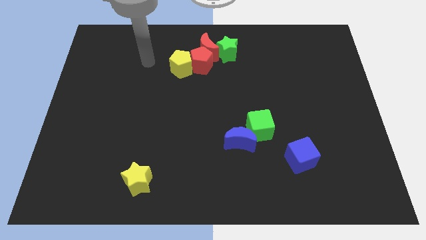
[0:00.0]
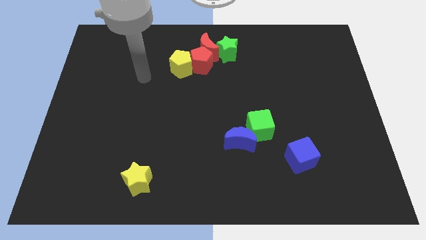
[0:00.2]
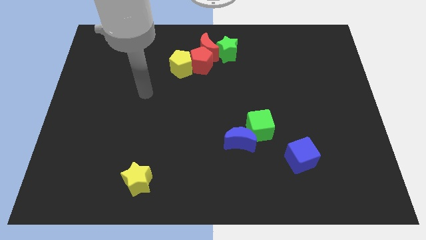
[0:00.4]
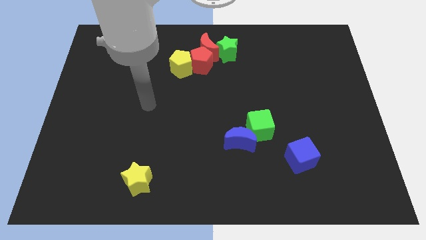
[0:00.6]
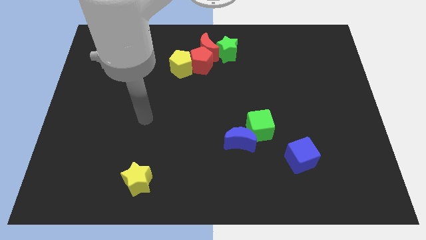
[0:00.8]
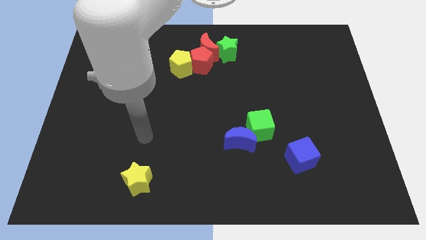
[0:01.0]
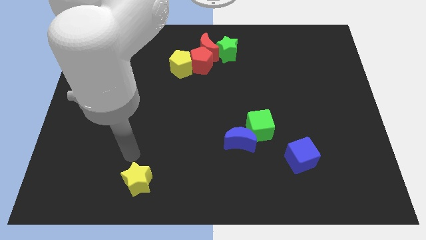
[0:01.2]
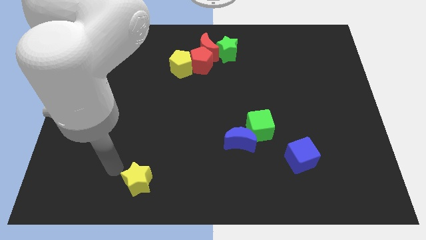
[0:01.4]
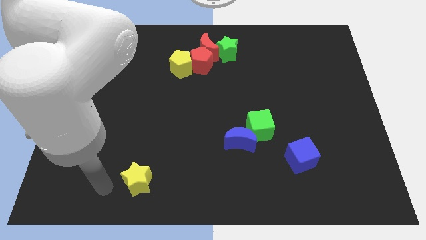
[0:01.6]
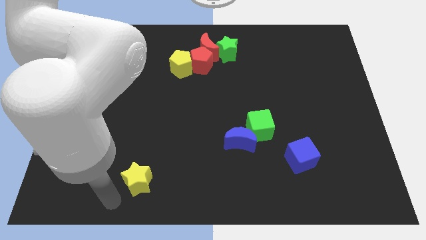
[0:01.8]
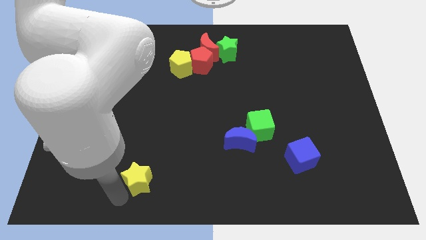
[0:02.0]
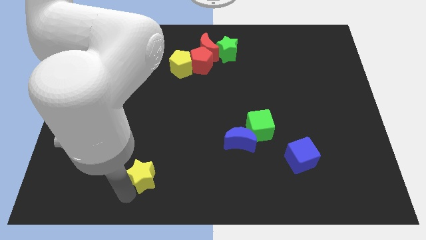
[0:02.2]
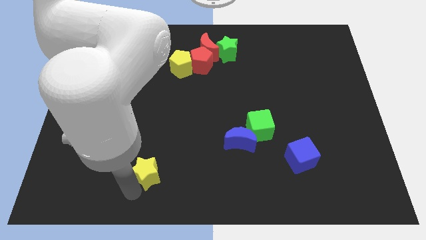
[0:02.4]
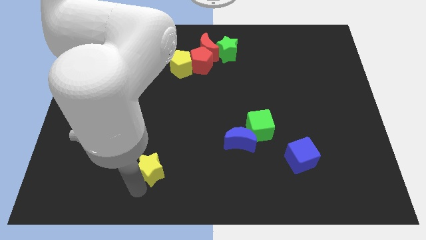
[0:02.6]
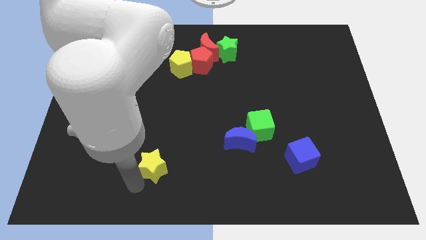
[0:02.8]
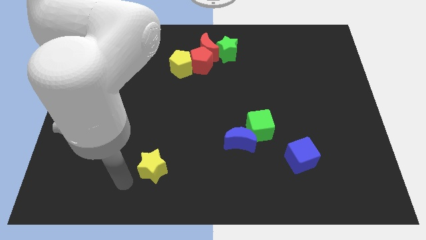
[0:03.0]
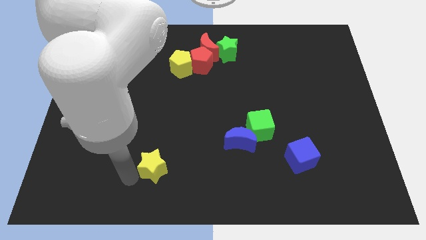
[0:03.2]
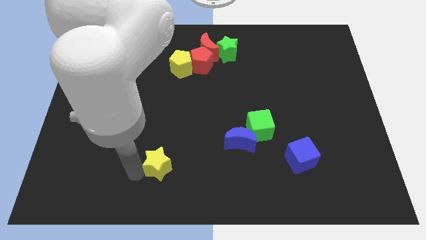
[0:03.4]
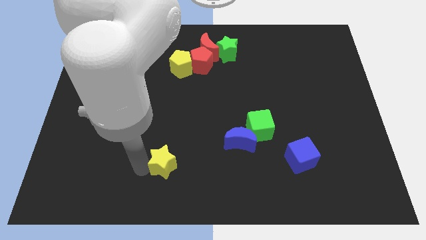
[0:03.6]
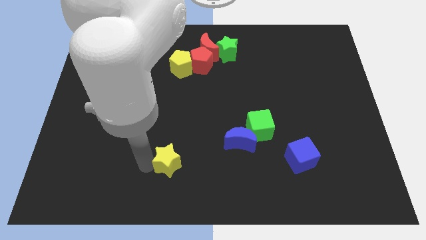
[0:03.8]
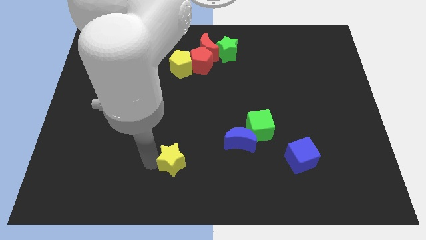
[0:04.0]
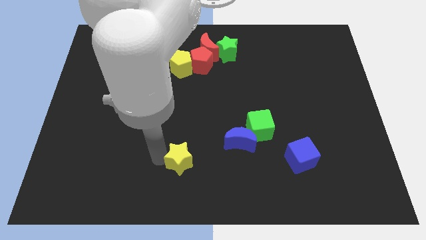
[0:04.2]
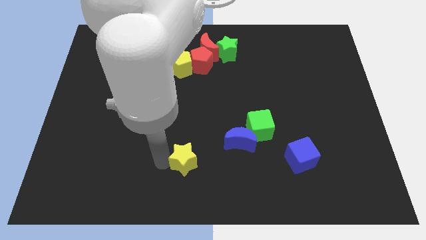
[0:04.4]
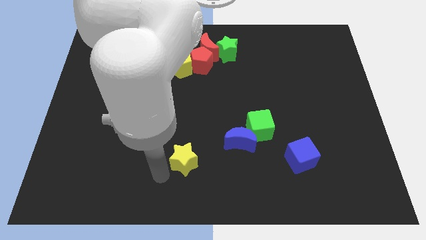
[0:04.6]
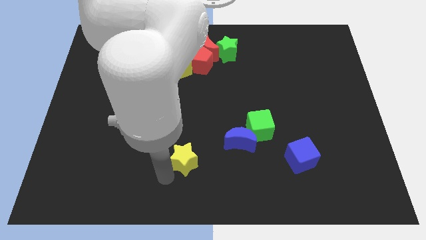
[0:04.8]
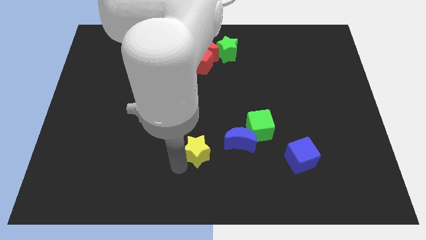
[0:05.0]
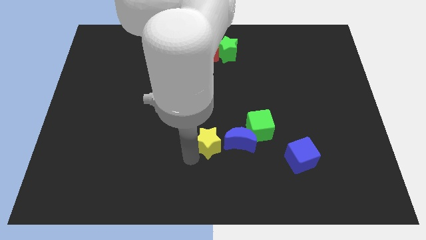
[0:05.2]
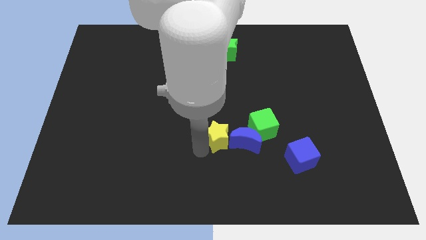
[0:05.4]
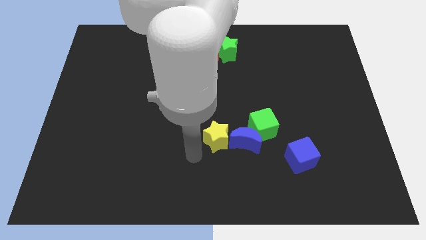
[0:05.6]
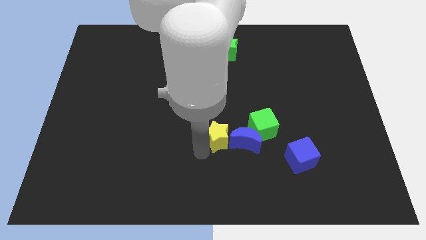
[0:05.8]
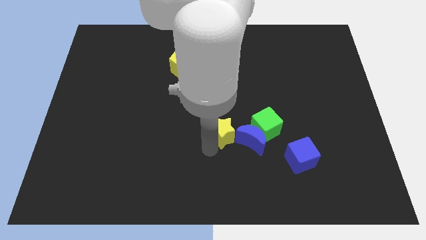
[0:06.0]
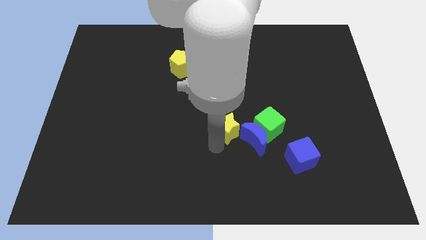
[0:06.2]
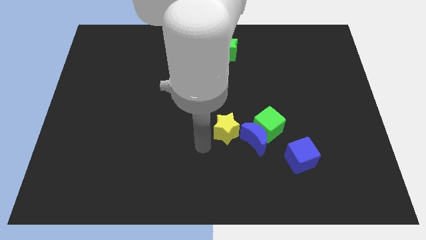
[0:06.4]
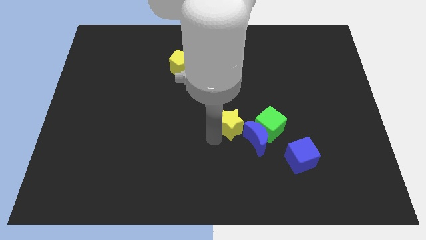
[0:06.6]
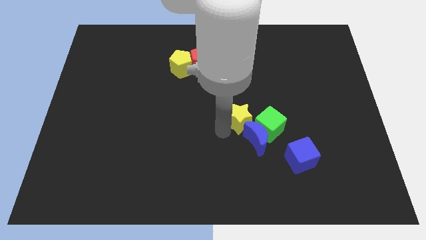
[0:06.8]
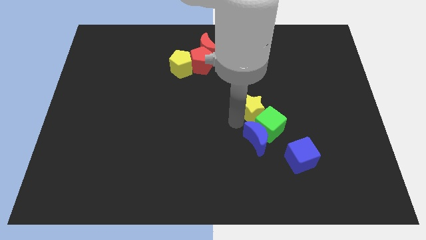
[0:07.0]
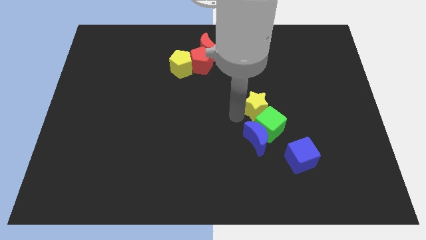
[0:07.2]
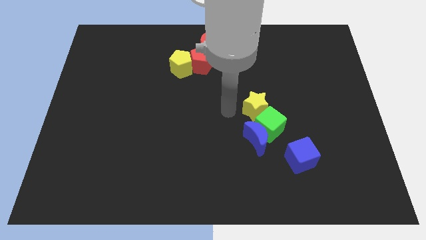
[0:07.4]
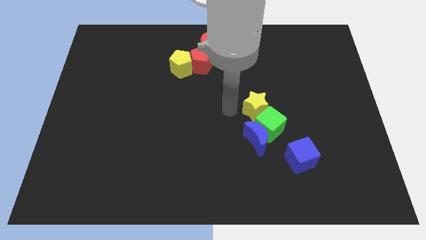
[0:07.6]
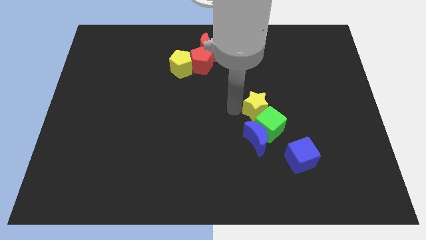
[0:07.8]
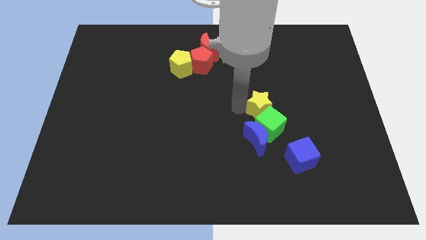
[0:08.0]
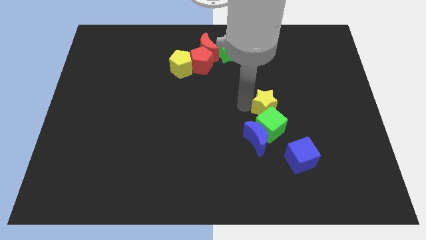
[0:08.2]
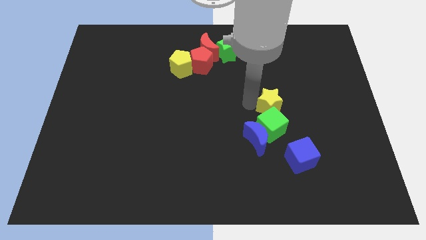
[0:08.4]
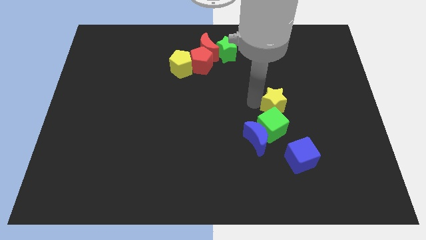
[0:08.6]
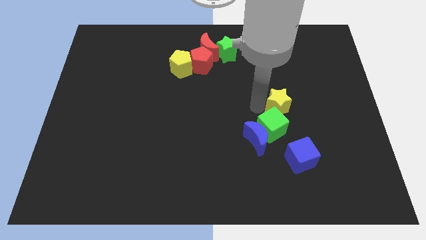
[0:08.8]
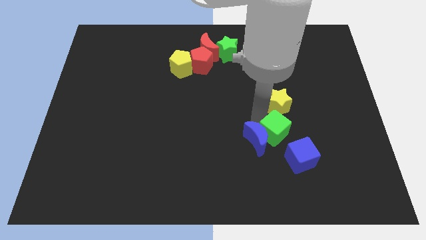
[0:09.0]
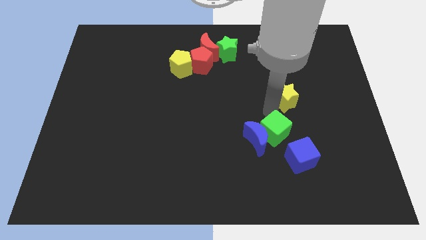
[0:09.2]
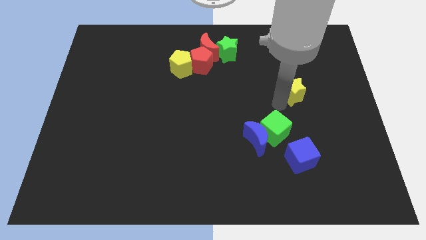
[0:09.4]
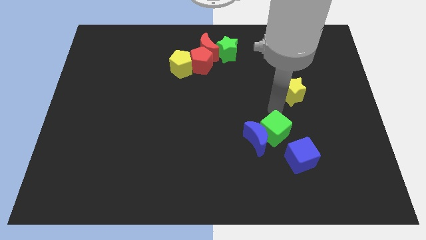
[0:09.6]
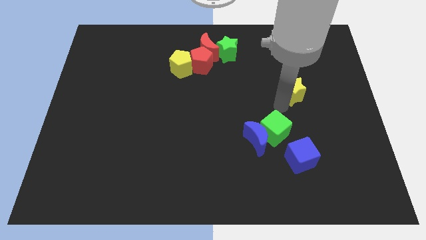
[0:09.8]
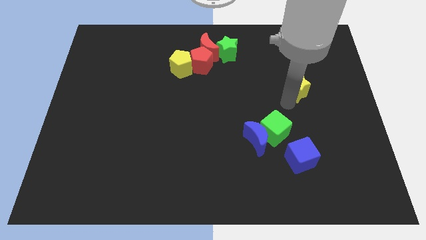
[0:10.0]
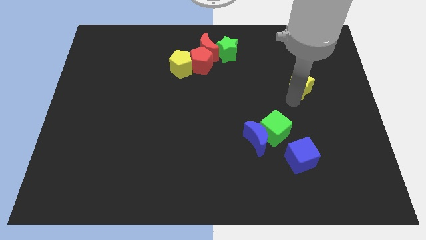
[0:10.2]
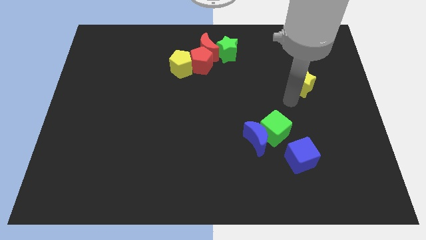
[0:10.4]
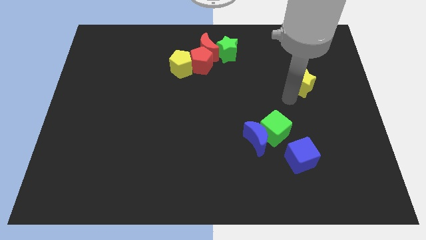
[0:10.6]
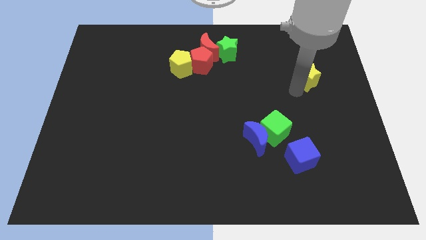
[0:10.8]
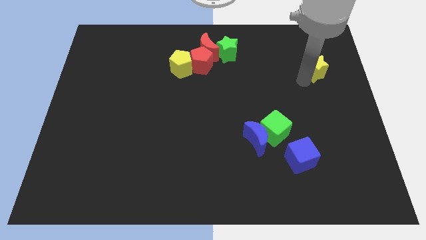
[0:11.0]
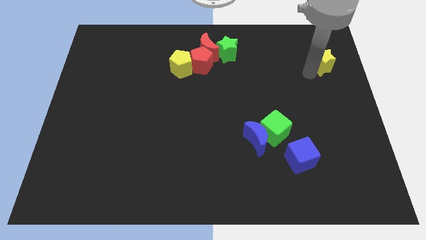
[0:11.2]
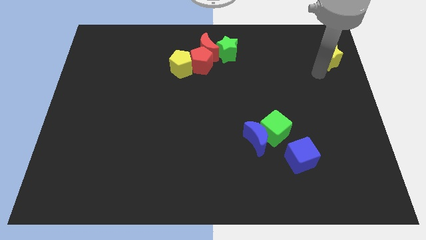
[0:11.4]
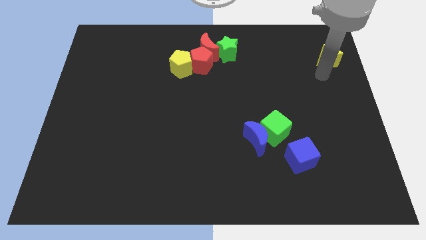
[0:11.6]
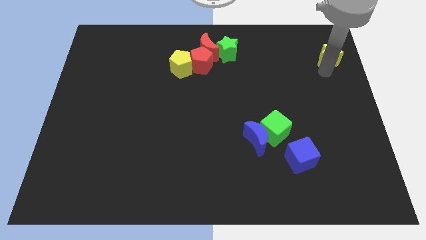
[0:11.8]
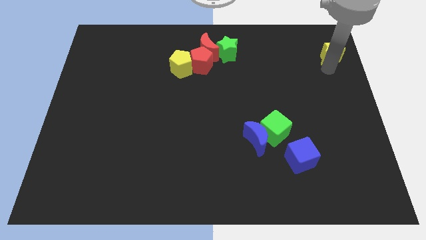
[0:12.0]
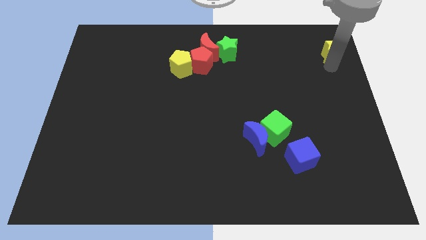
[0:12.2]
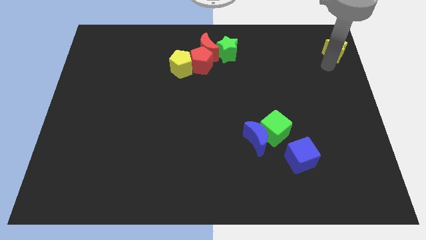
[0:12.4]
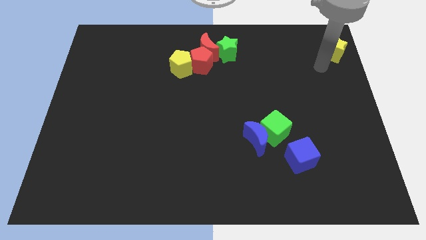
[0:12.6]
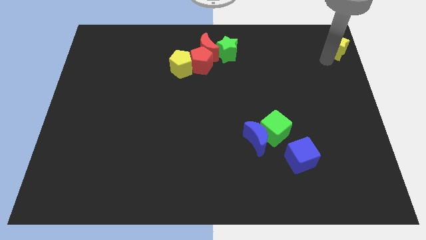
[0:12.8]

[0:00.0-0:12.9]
slide the yellow star to the upper right corner

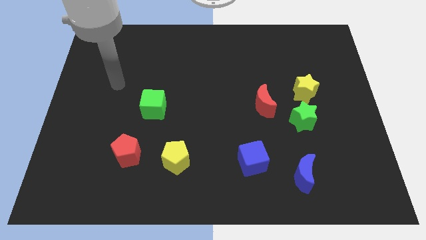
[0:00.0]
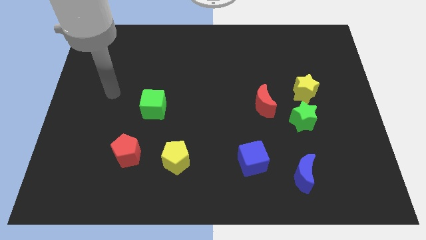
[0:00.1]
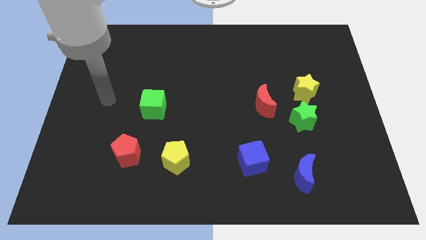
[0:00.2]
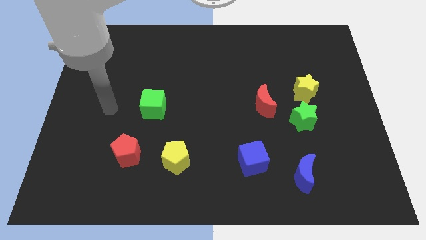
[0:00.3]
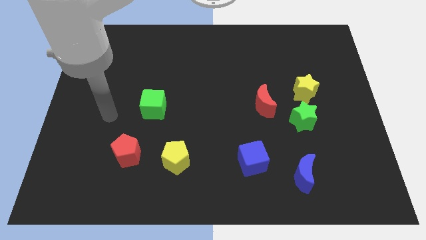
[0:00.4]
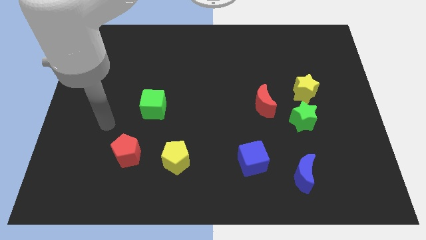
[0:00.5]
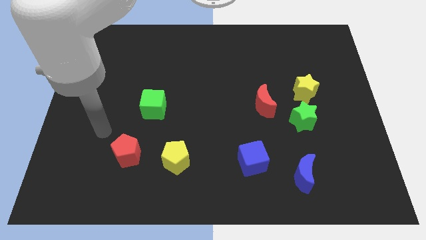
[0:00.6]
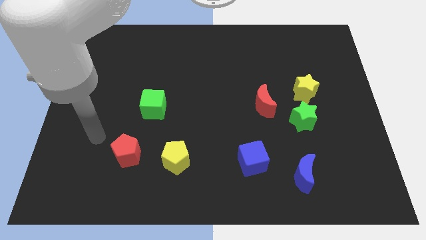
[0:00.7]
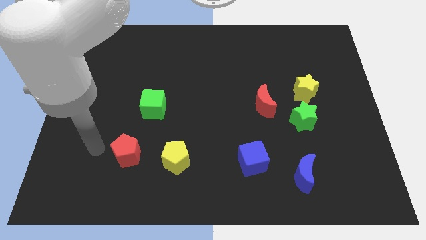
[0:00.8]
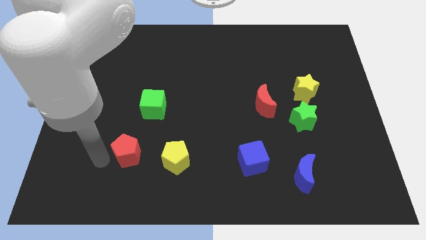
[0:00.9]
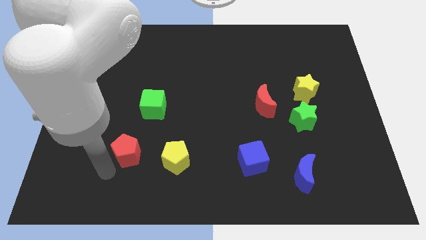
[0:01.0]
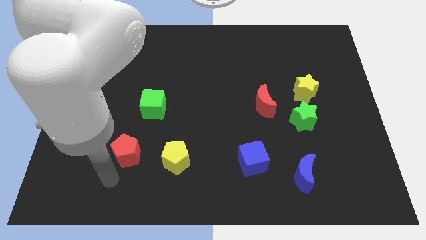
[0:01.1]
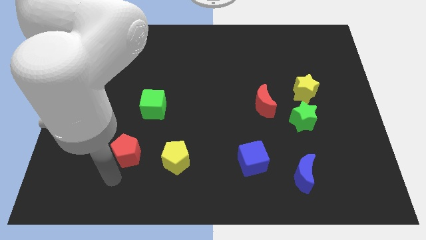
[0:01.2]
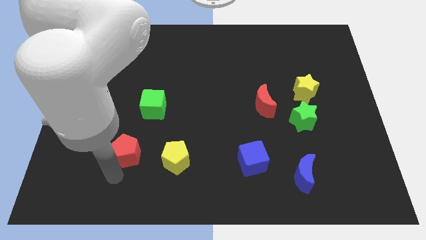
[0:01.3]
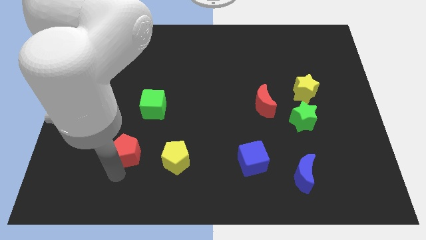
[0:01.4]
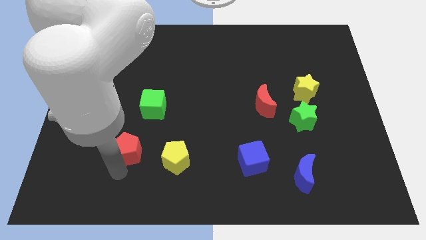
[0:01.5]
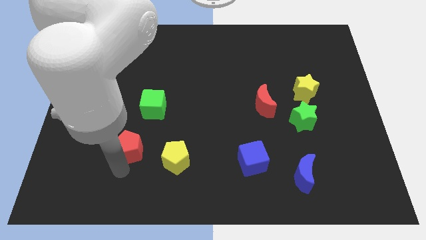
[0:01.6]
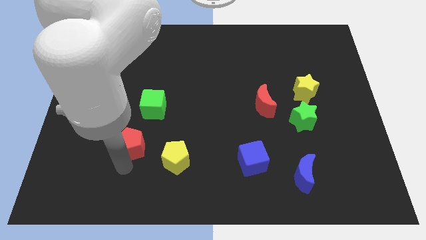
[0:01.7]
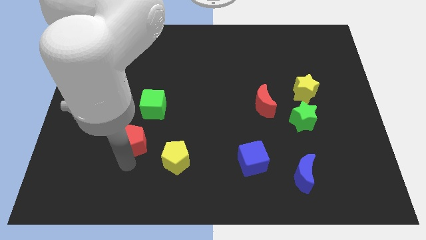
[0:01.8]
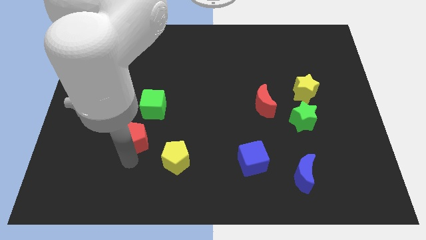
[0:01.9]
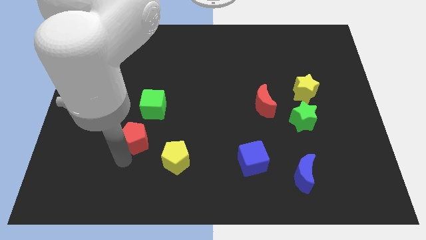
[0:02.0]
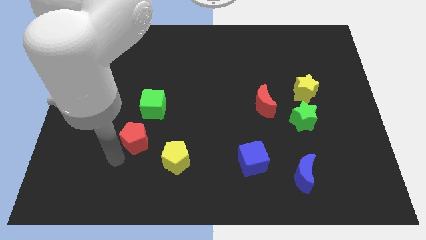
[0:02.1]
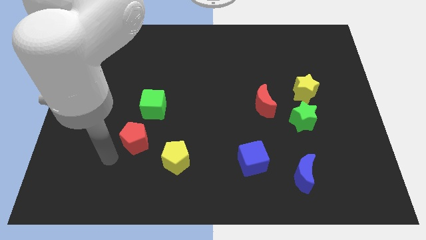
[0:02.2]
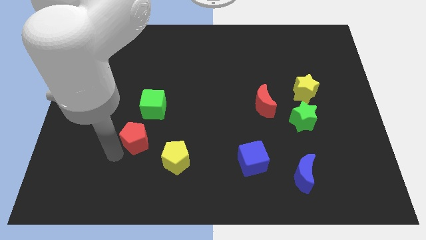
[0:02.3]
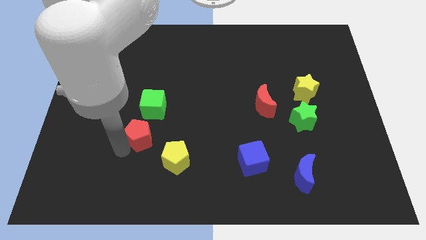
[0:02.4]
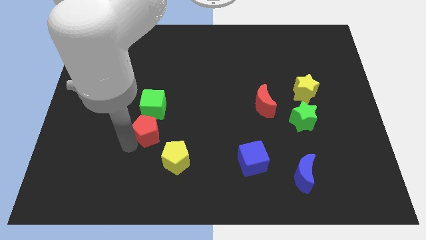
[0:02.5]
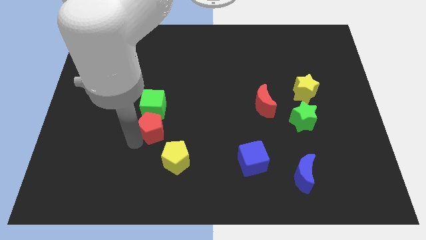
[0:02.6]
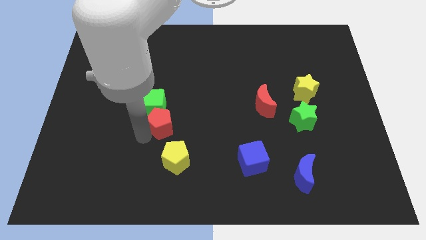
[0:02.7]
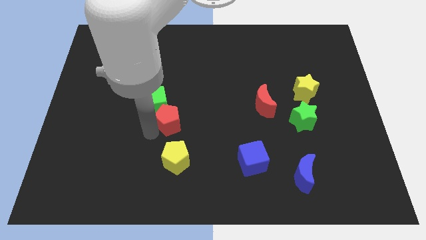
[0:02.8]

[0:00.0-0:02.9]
push the red pentagon to the center
